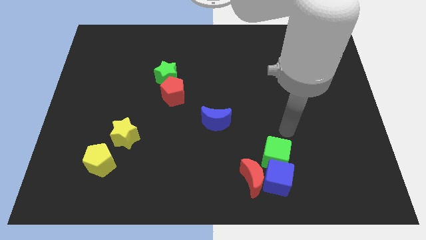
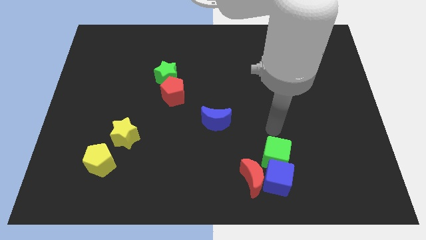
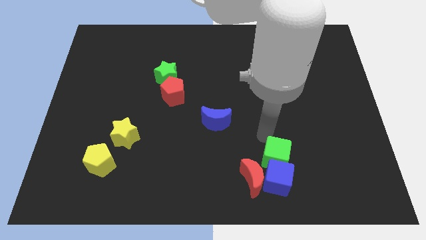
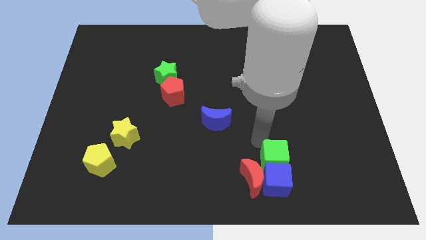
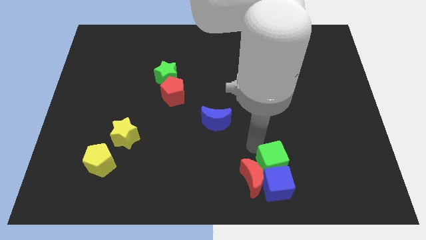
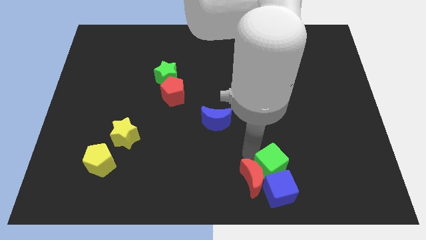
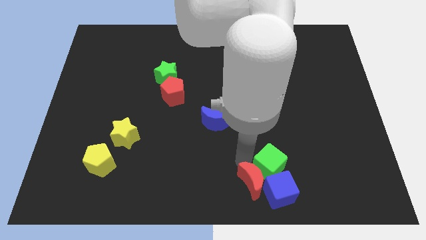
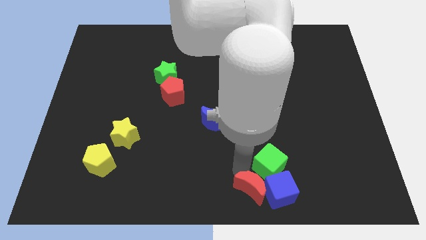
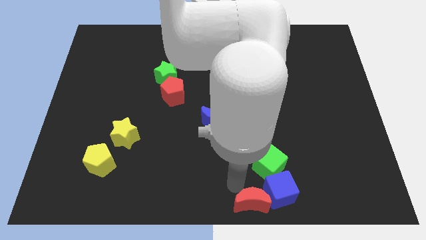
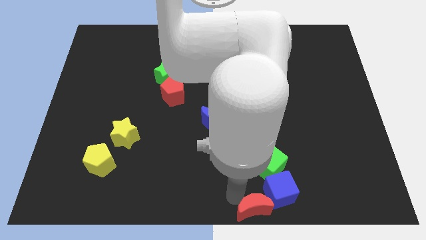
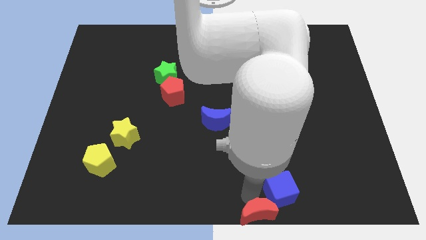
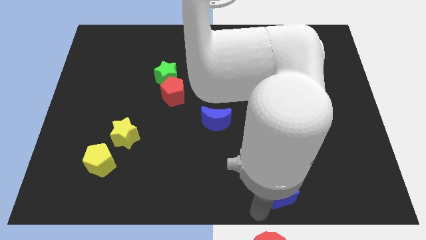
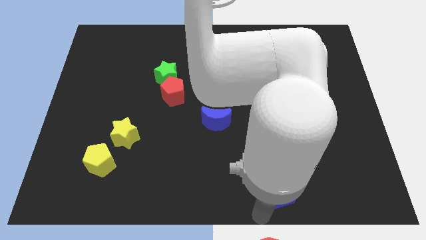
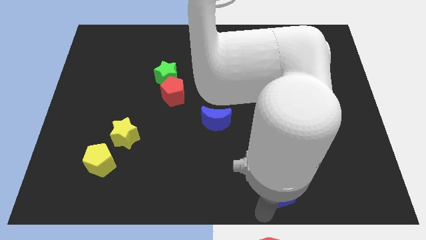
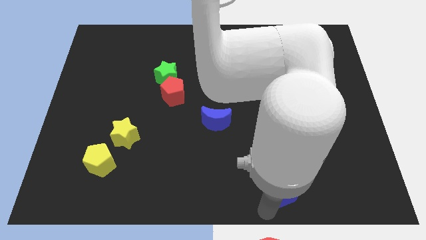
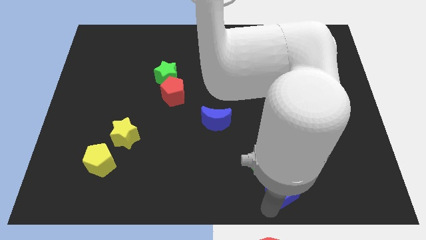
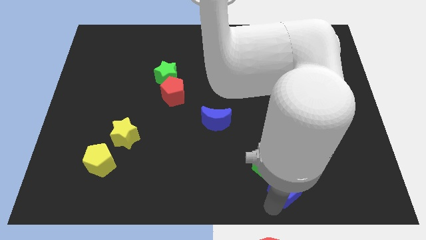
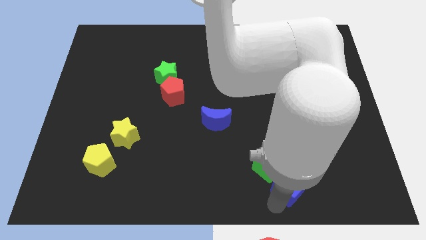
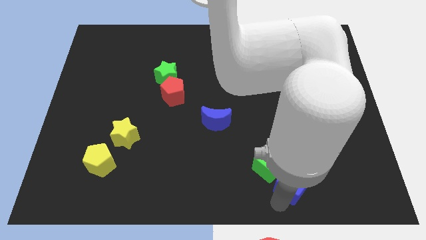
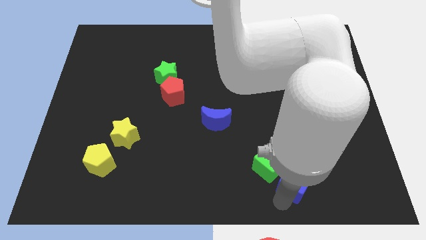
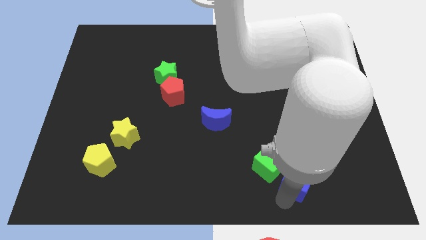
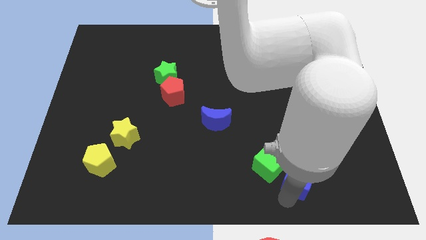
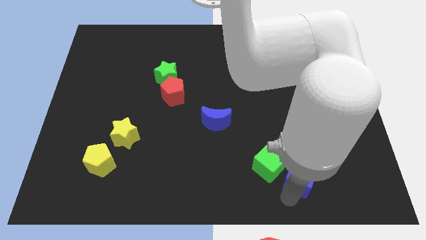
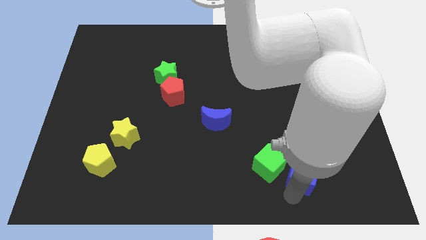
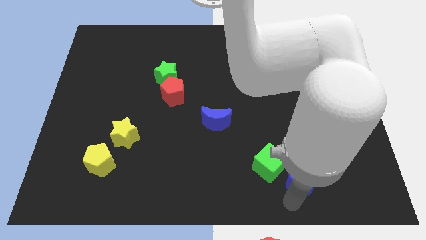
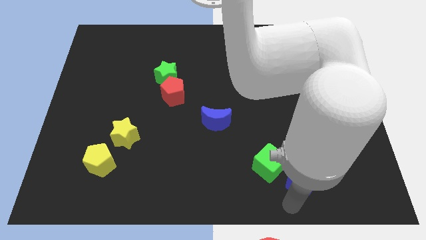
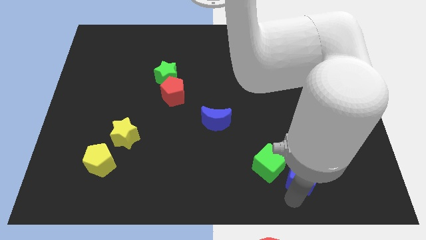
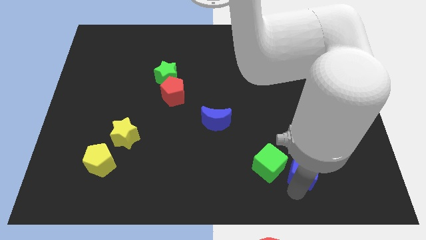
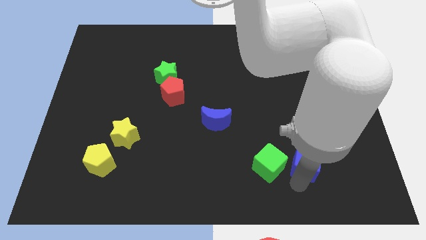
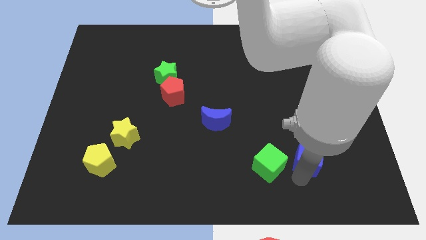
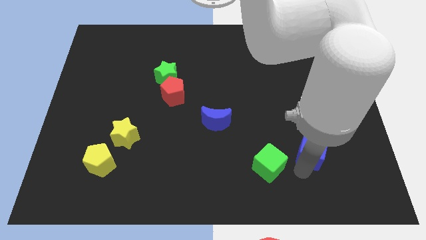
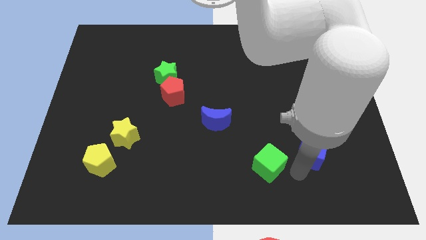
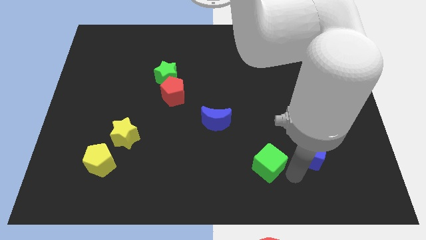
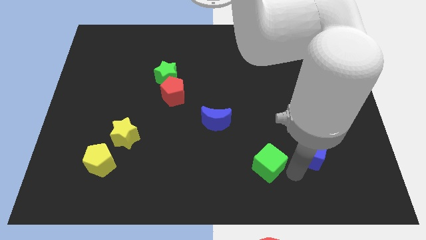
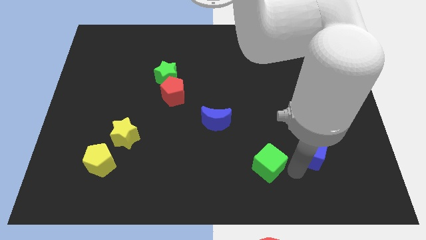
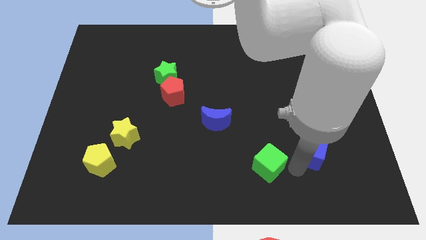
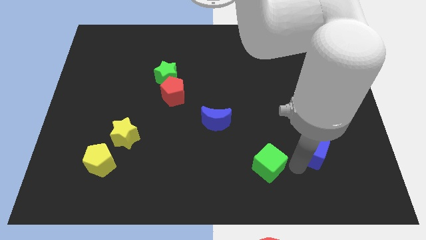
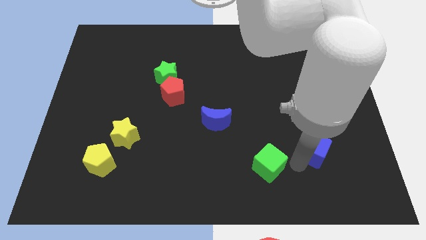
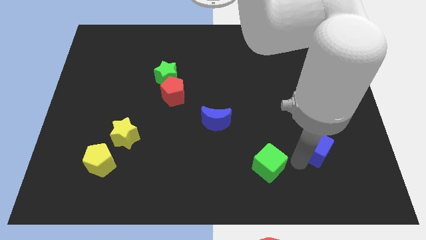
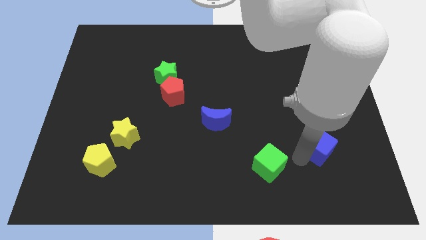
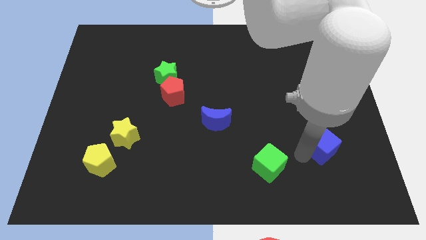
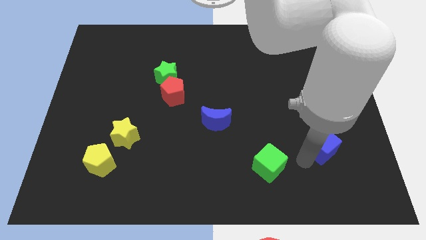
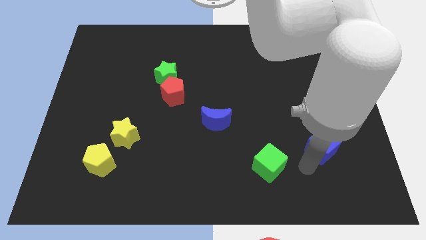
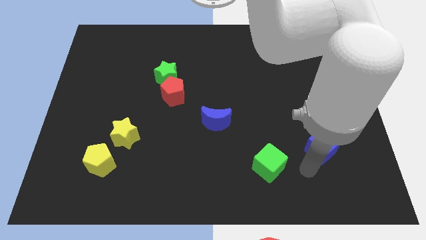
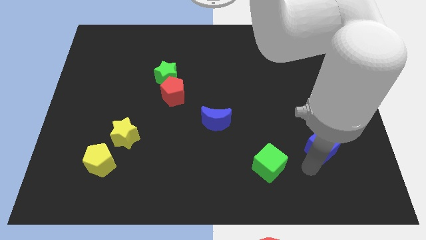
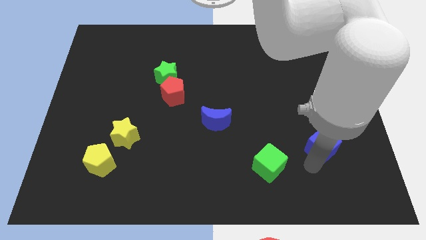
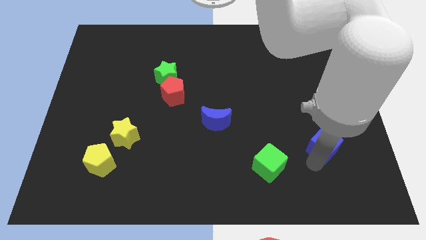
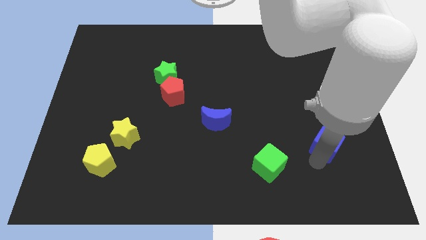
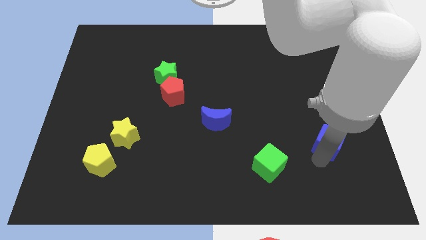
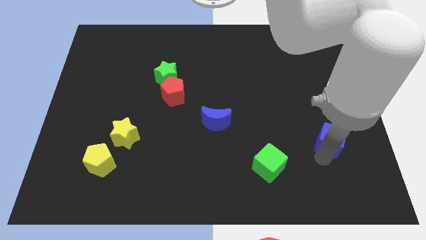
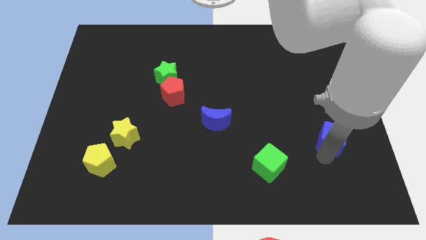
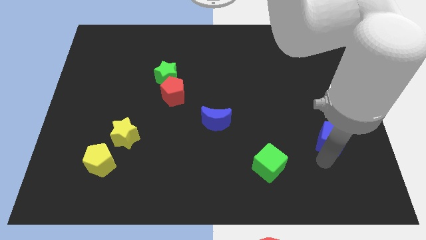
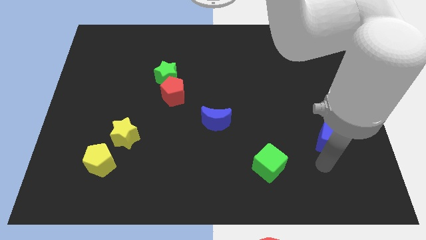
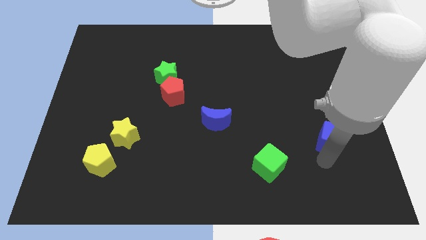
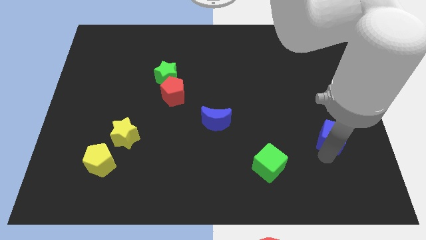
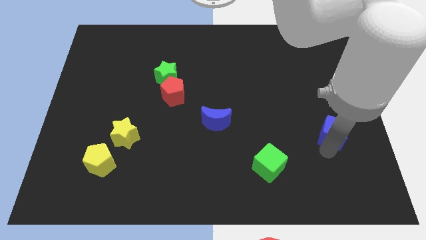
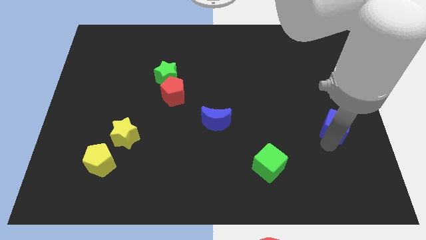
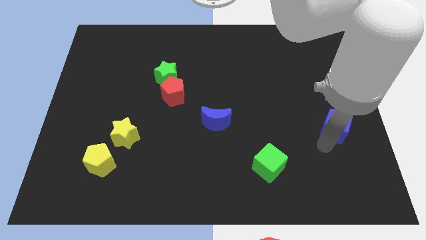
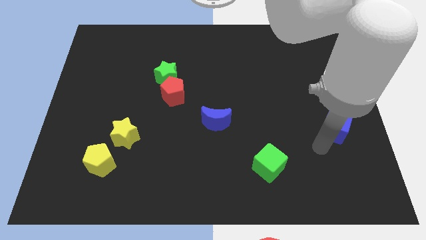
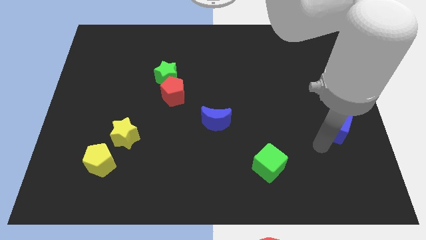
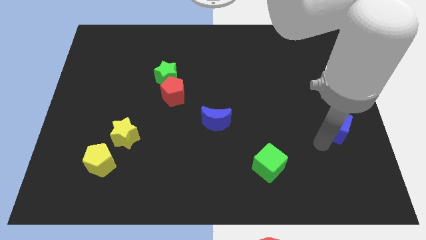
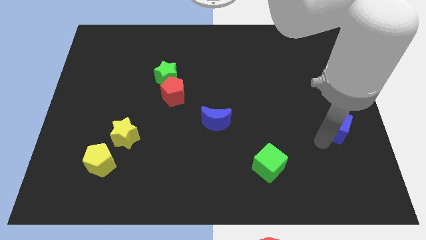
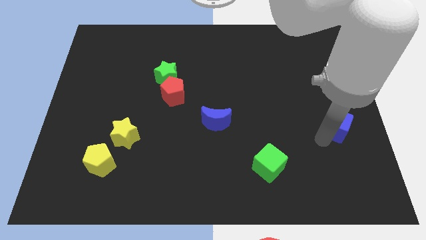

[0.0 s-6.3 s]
move the blue cube to the right side

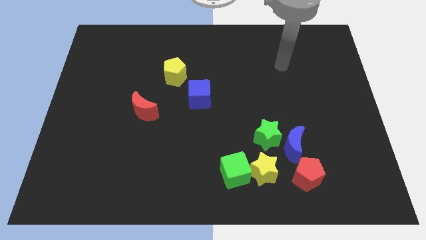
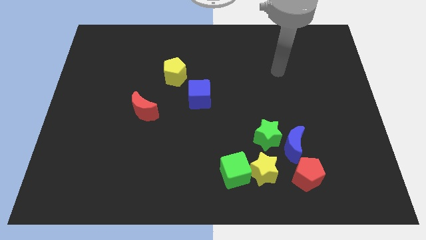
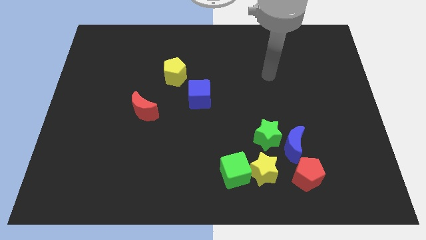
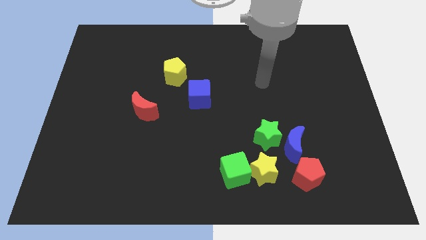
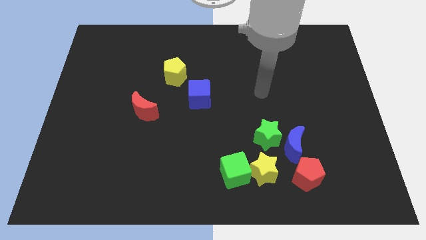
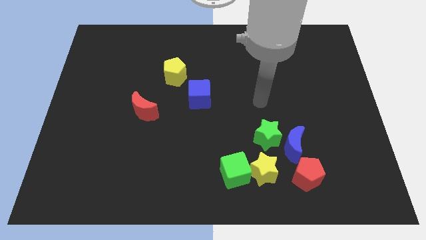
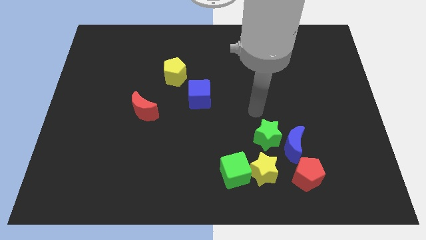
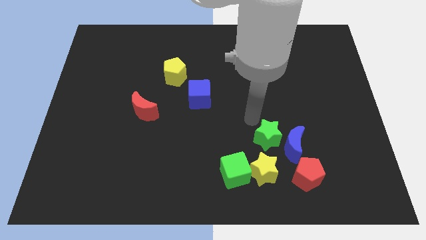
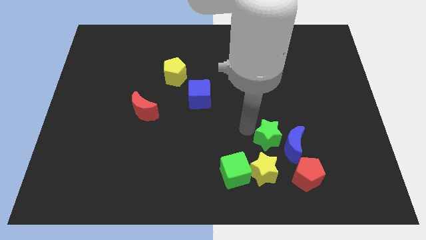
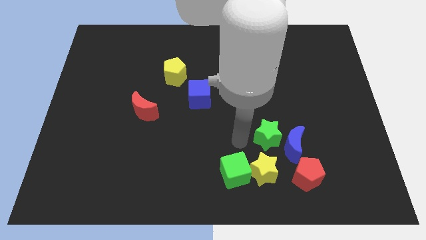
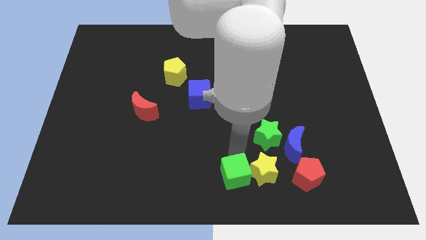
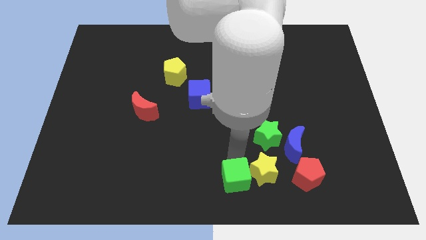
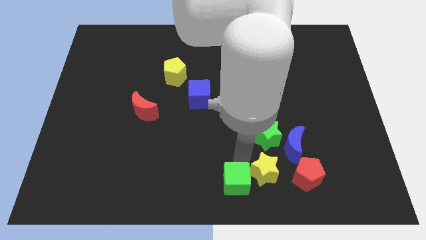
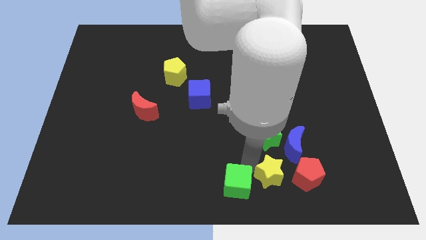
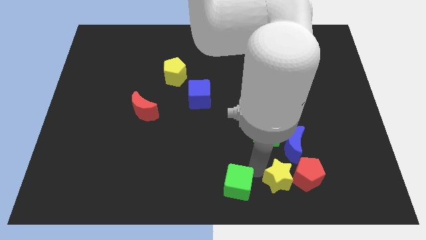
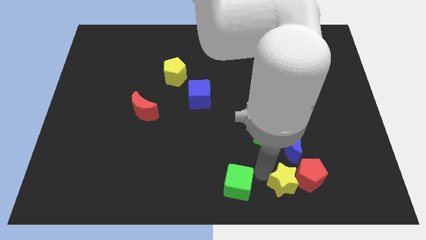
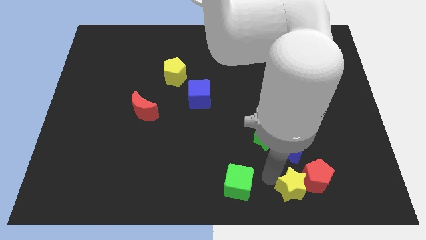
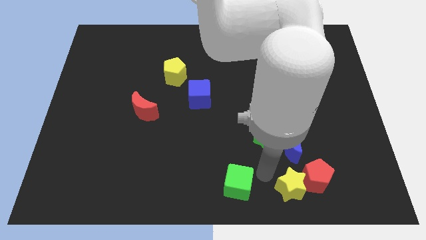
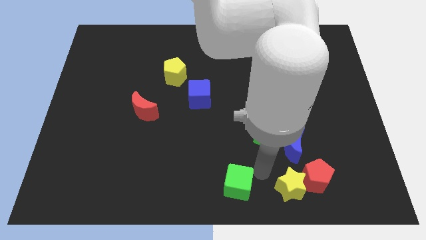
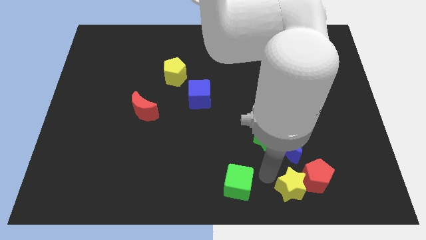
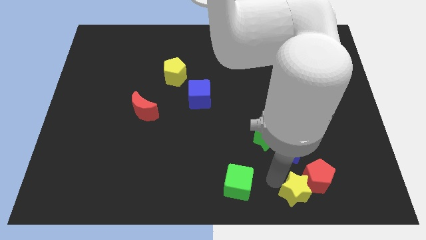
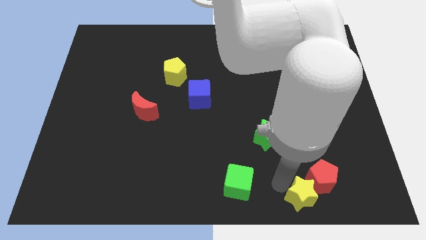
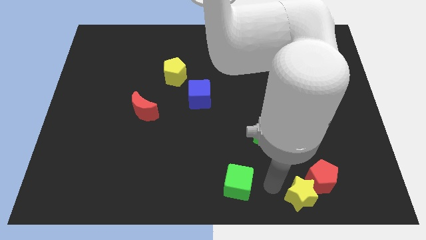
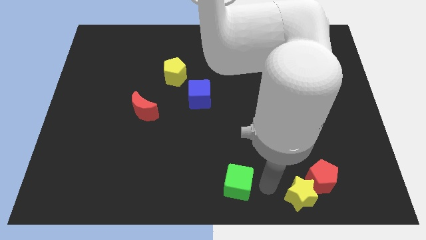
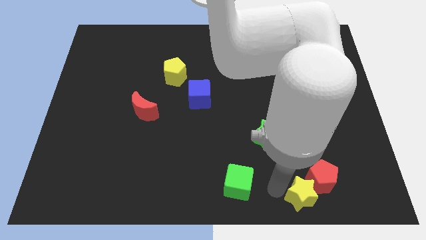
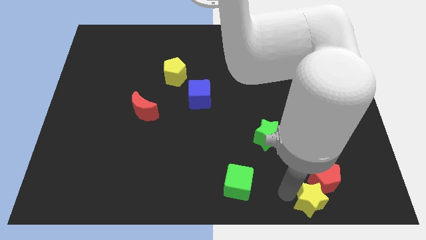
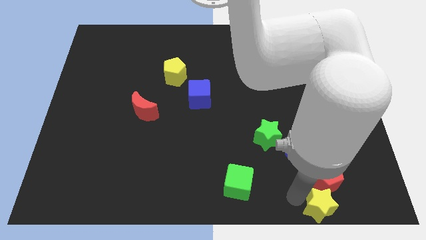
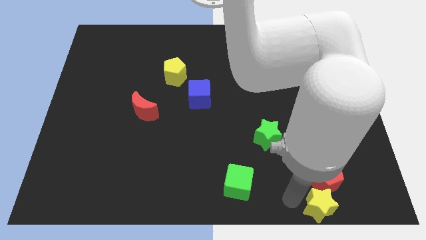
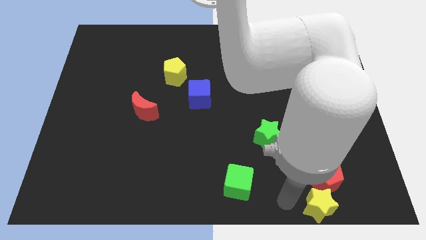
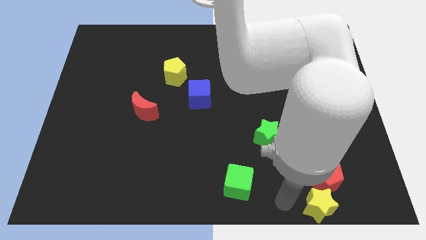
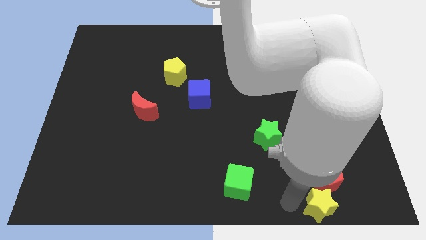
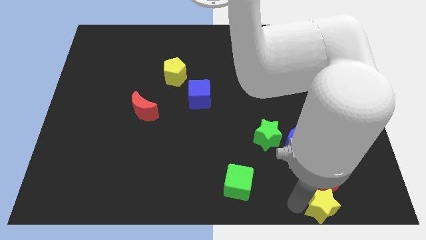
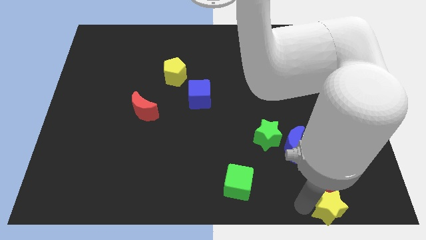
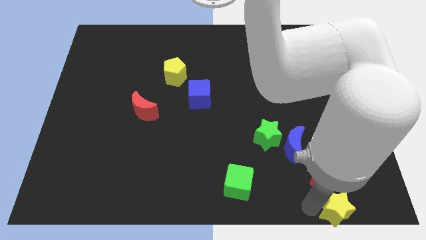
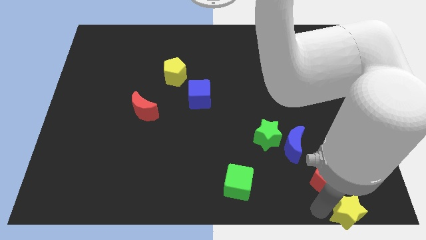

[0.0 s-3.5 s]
move the yellow star to the bottom right of the board
